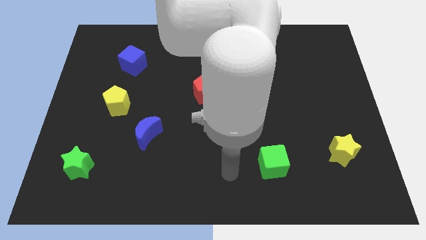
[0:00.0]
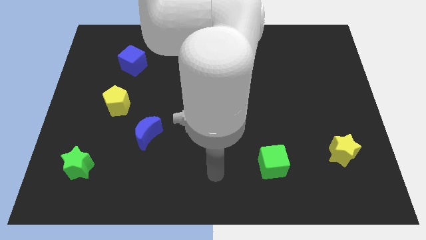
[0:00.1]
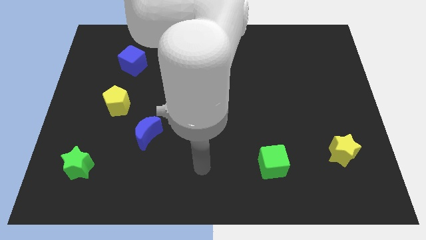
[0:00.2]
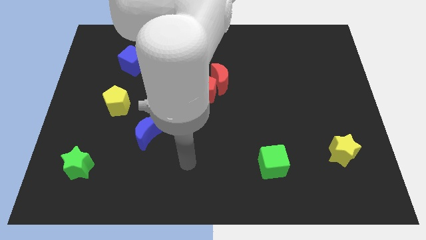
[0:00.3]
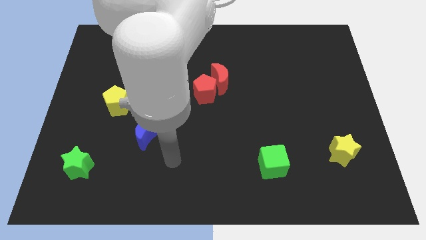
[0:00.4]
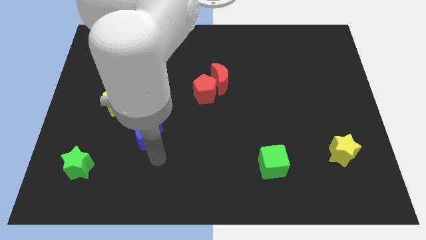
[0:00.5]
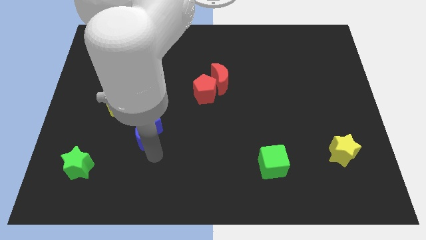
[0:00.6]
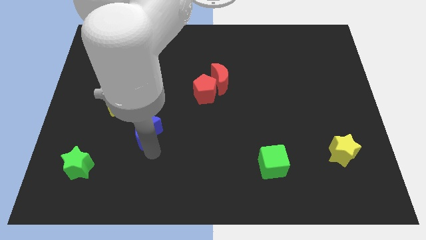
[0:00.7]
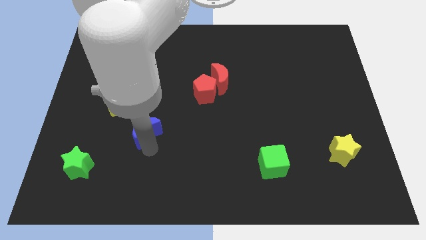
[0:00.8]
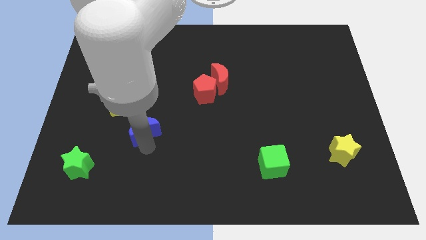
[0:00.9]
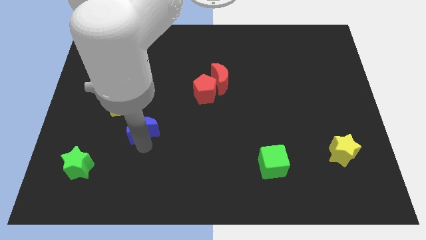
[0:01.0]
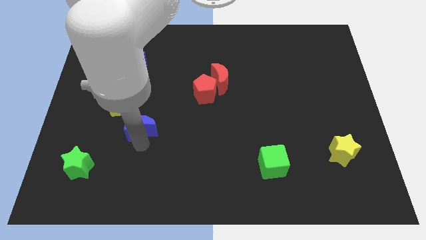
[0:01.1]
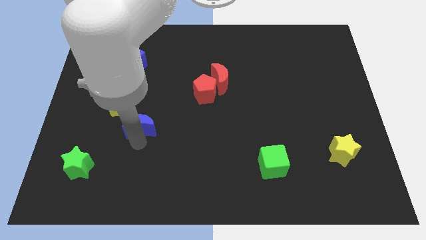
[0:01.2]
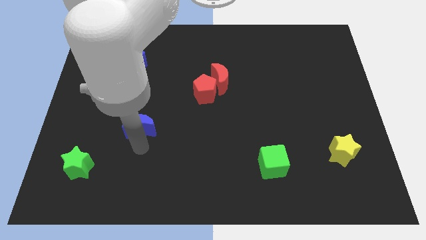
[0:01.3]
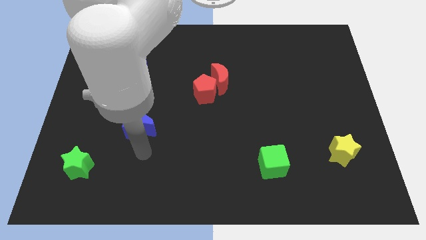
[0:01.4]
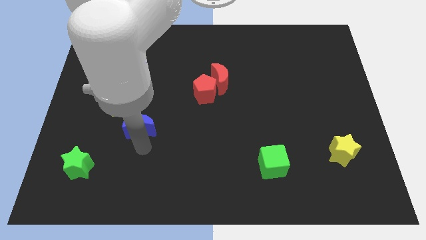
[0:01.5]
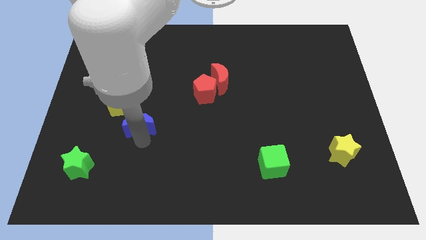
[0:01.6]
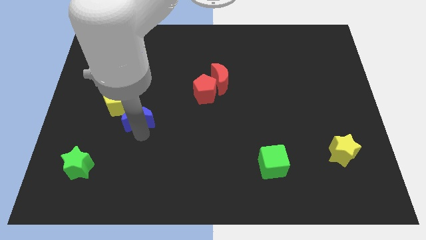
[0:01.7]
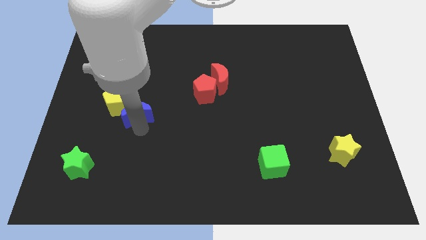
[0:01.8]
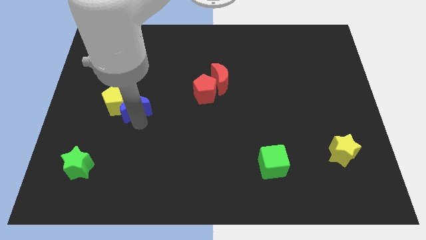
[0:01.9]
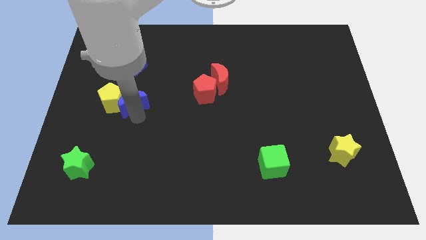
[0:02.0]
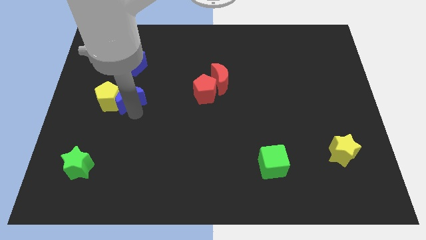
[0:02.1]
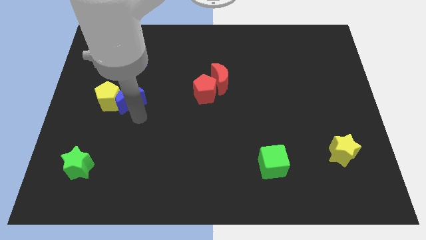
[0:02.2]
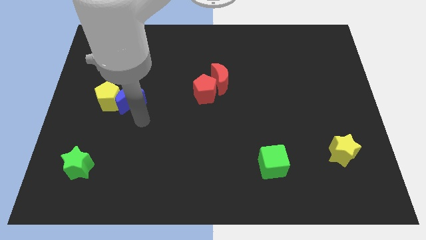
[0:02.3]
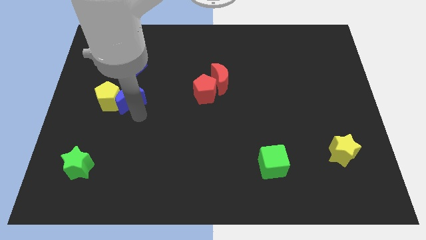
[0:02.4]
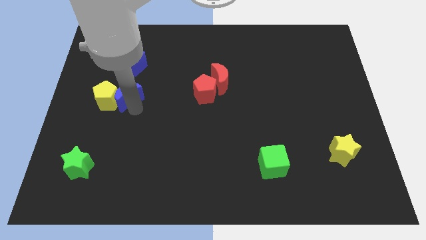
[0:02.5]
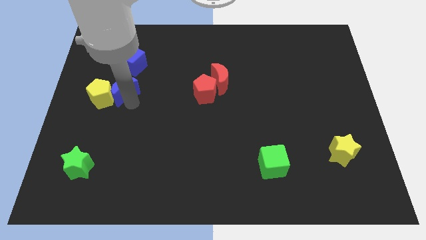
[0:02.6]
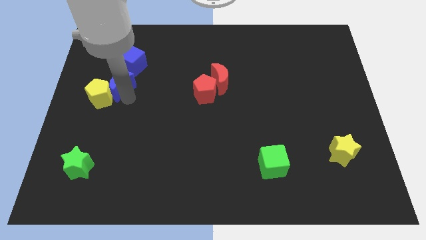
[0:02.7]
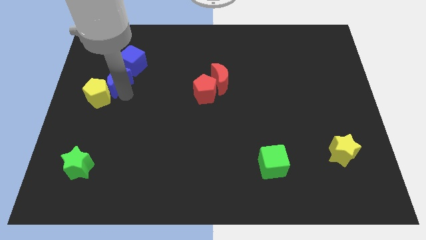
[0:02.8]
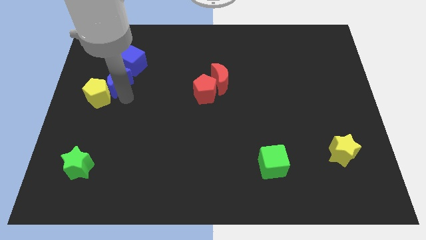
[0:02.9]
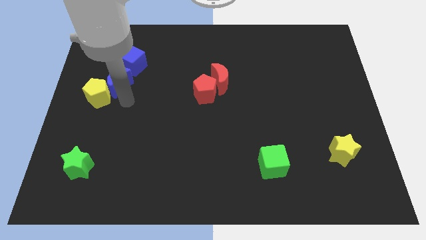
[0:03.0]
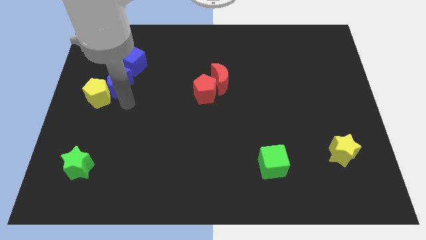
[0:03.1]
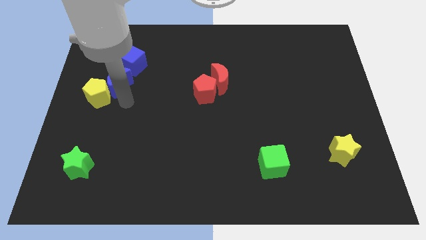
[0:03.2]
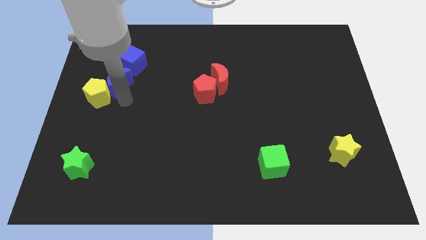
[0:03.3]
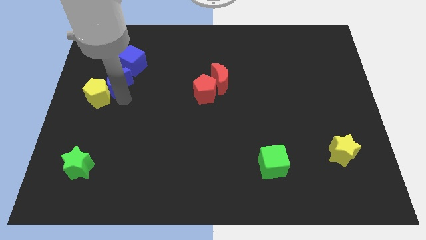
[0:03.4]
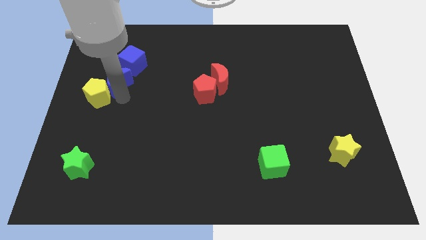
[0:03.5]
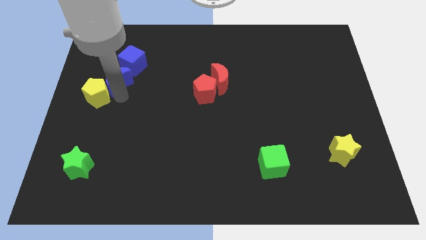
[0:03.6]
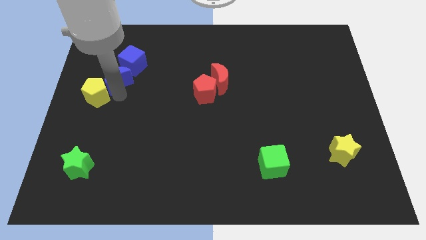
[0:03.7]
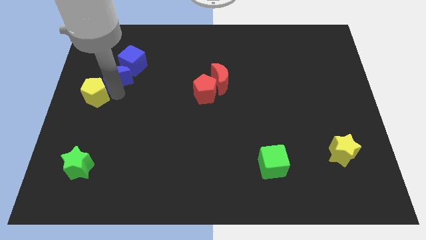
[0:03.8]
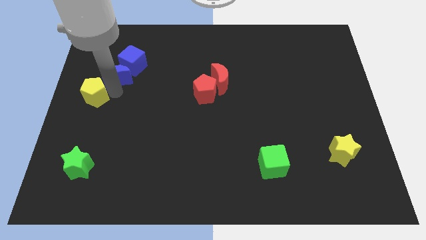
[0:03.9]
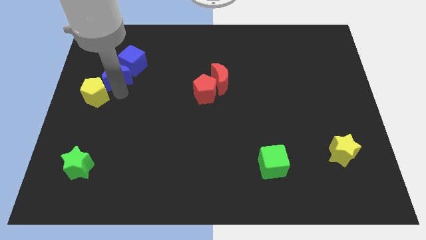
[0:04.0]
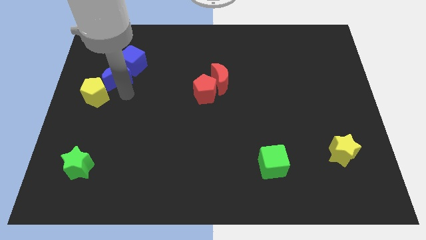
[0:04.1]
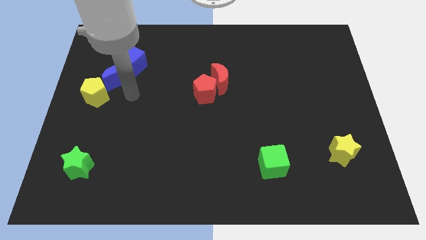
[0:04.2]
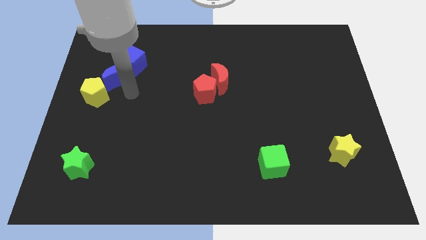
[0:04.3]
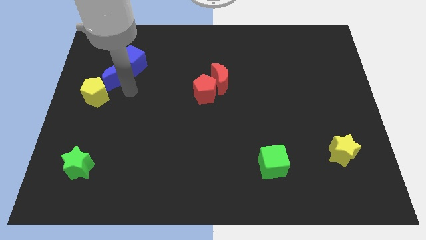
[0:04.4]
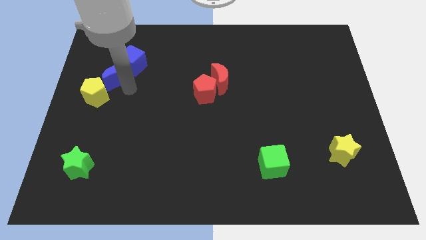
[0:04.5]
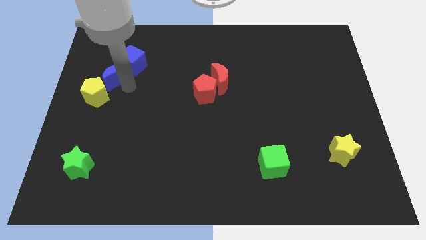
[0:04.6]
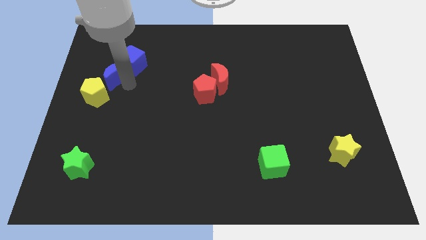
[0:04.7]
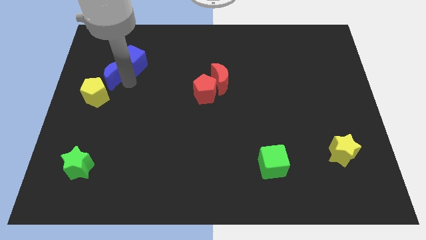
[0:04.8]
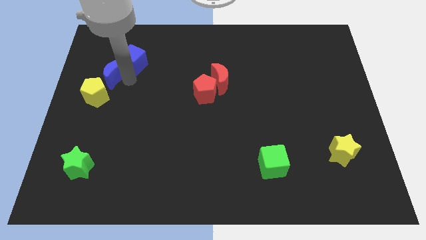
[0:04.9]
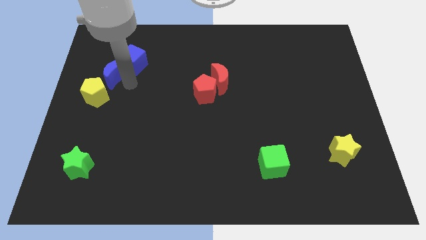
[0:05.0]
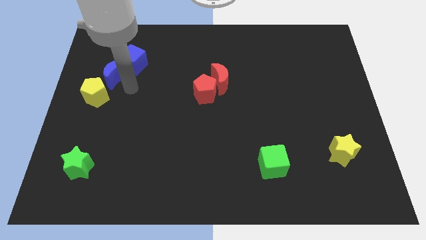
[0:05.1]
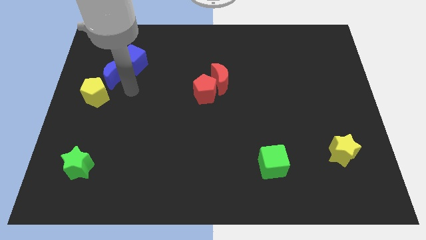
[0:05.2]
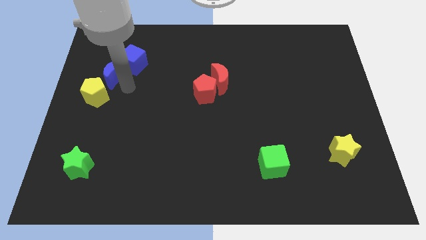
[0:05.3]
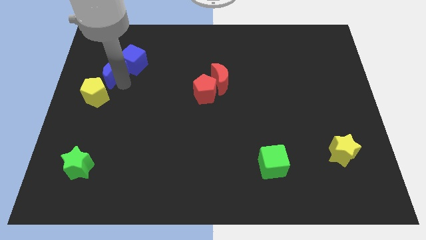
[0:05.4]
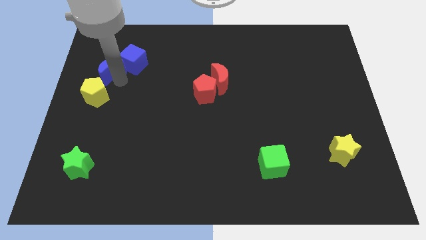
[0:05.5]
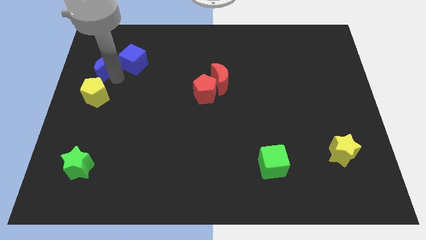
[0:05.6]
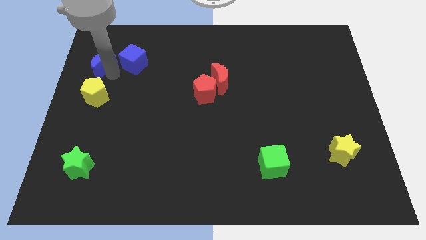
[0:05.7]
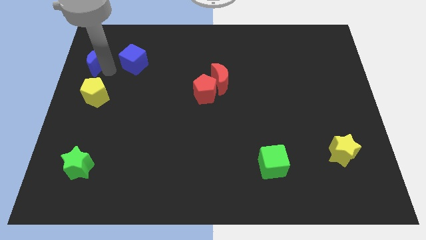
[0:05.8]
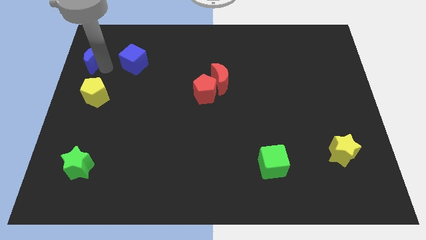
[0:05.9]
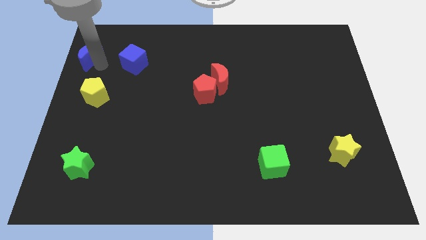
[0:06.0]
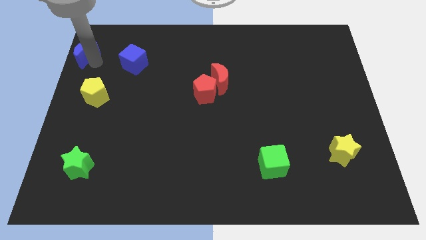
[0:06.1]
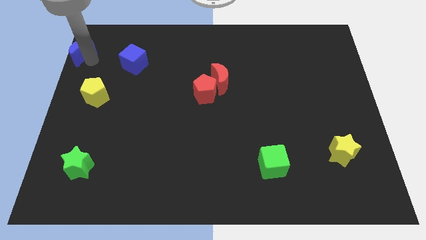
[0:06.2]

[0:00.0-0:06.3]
slide the blue moon to the top left

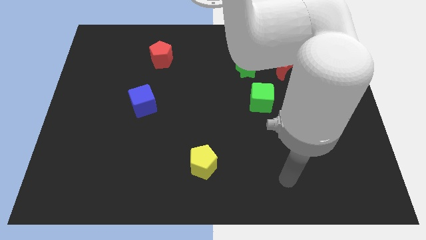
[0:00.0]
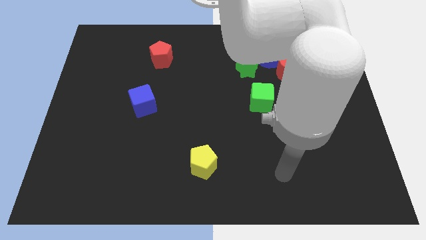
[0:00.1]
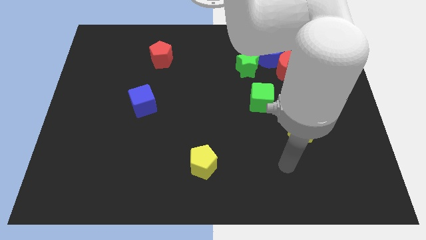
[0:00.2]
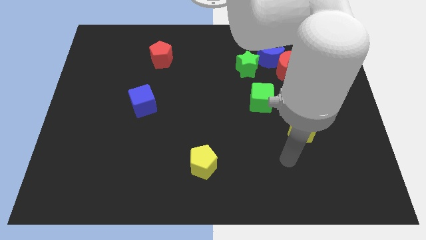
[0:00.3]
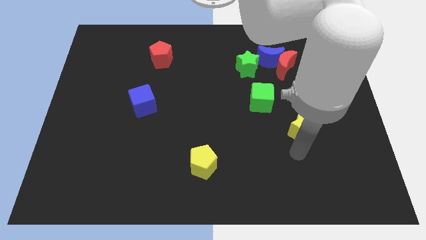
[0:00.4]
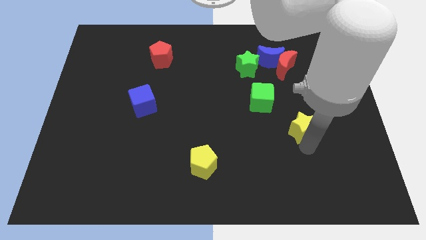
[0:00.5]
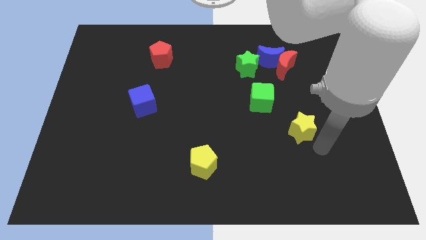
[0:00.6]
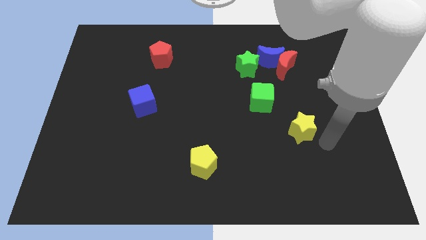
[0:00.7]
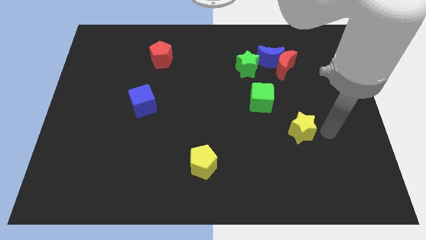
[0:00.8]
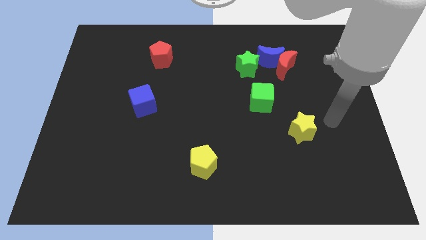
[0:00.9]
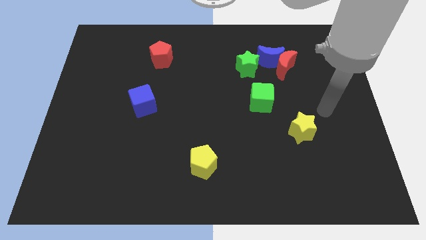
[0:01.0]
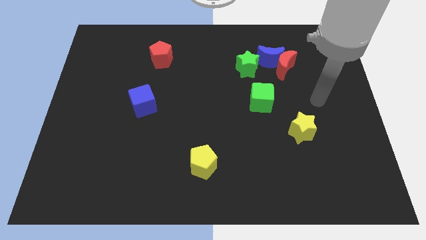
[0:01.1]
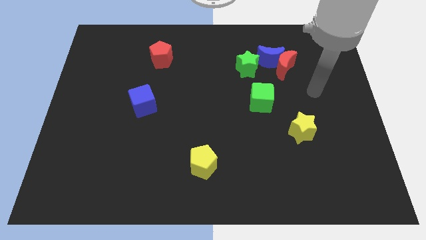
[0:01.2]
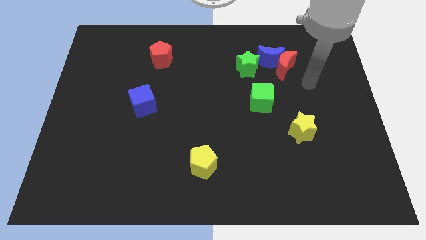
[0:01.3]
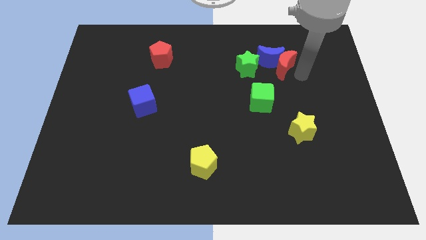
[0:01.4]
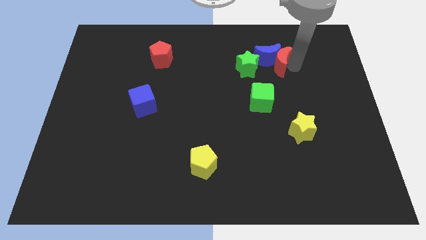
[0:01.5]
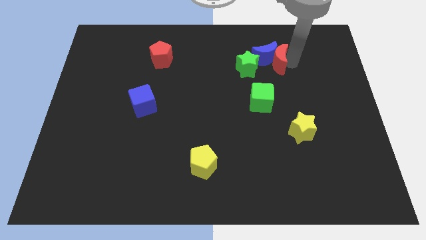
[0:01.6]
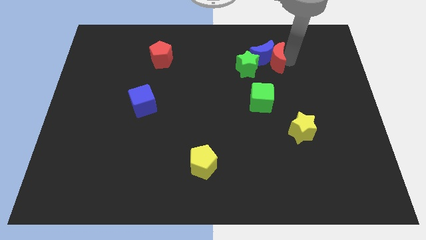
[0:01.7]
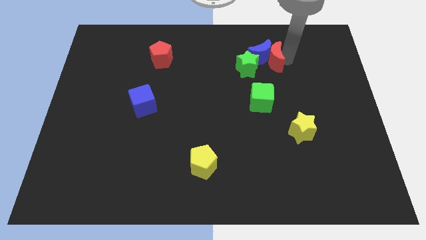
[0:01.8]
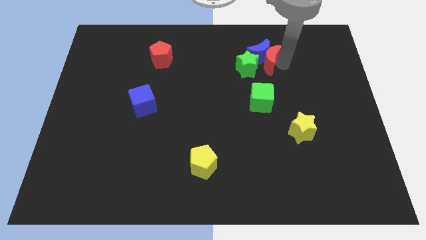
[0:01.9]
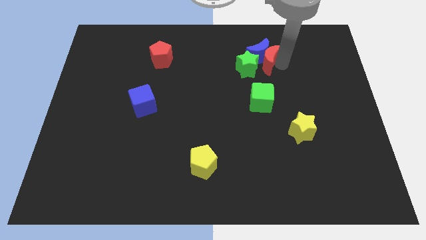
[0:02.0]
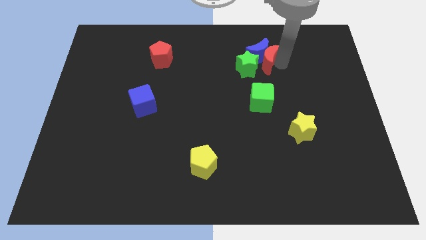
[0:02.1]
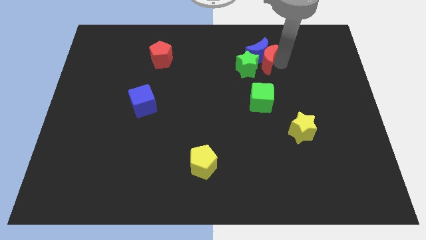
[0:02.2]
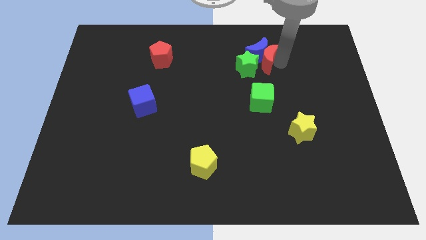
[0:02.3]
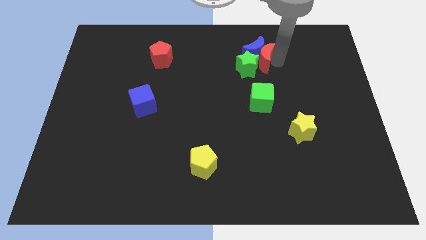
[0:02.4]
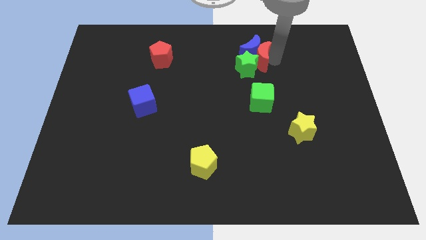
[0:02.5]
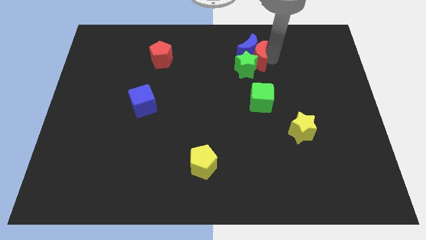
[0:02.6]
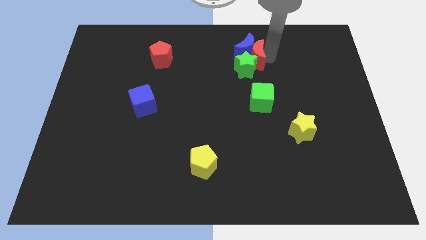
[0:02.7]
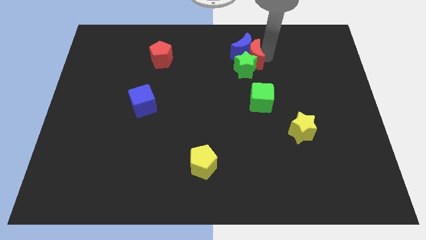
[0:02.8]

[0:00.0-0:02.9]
put the blue moon to the towards your base
